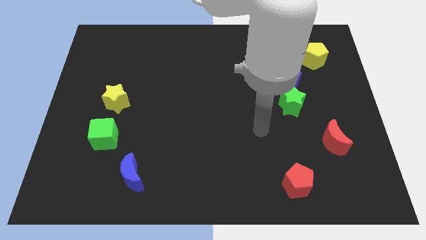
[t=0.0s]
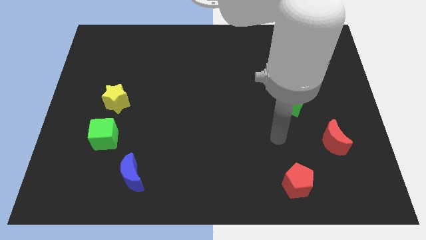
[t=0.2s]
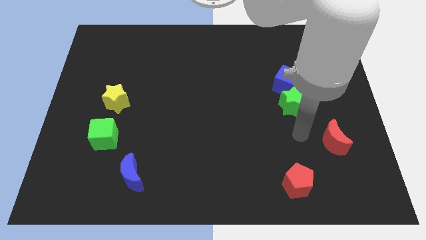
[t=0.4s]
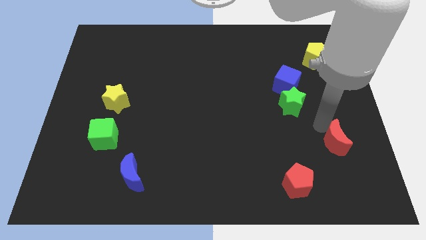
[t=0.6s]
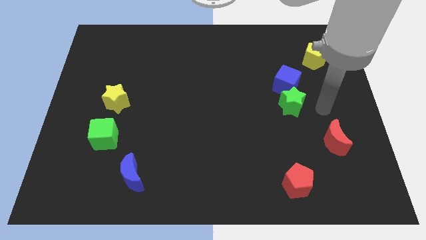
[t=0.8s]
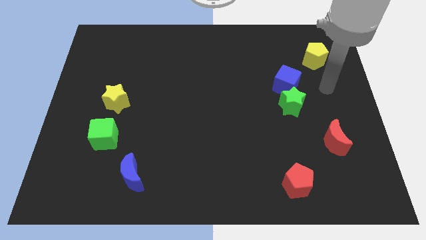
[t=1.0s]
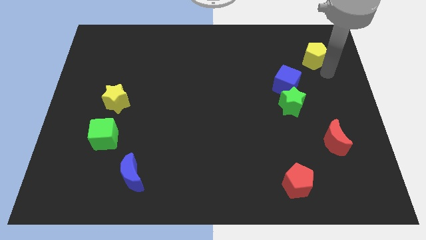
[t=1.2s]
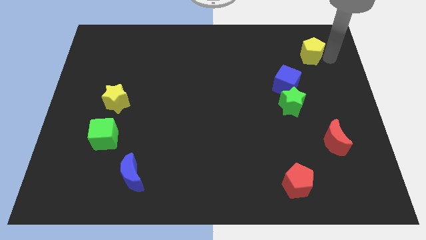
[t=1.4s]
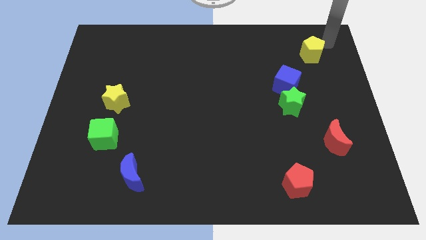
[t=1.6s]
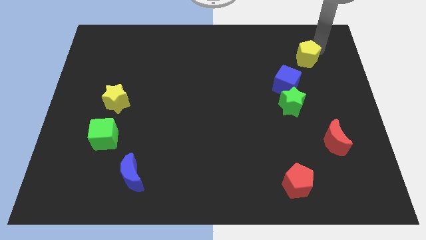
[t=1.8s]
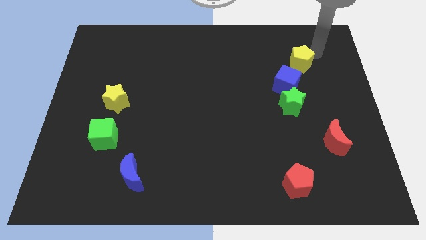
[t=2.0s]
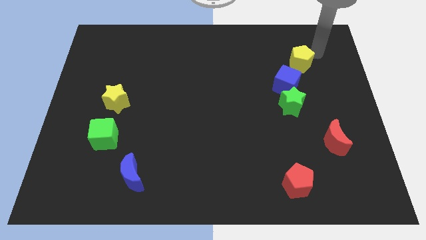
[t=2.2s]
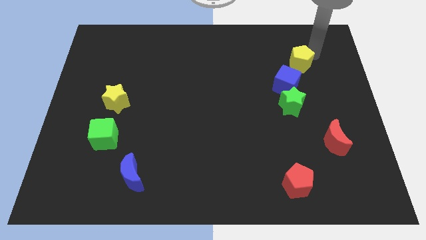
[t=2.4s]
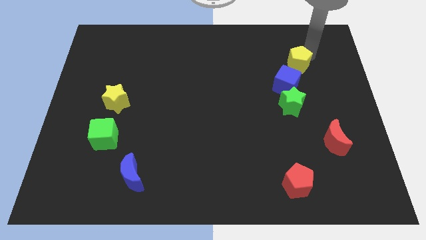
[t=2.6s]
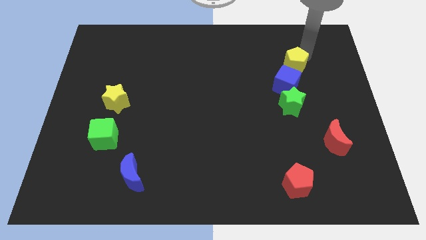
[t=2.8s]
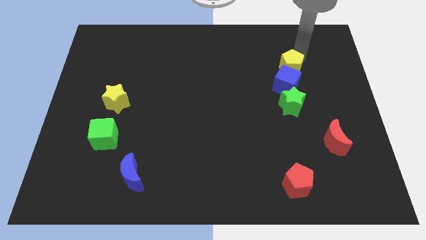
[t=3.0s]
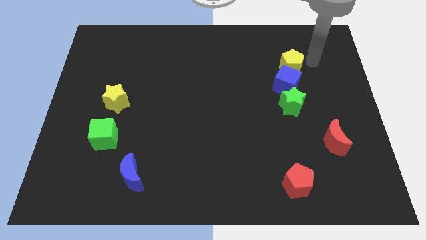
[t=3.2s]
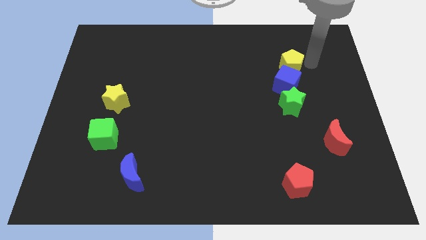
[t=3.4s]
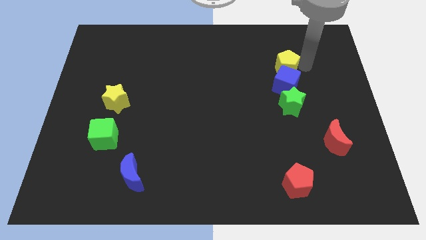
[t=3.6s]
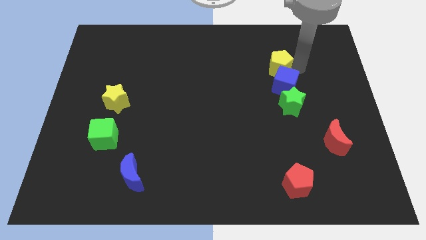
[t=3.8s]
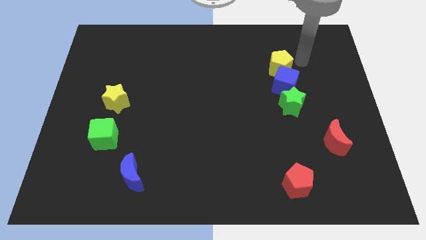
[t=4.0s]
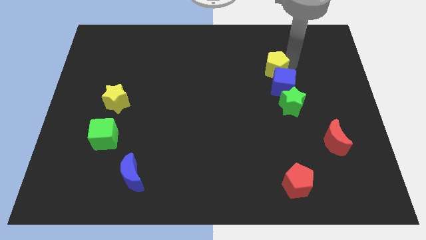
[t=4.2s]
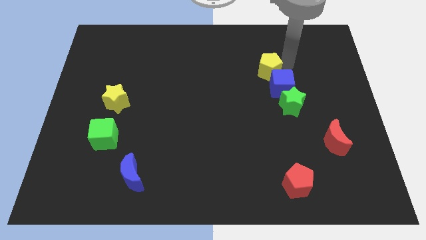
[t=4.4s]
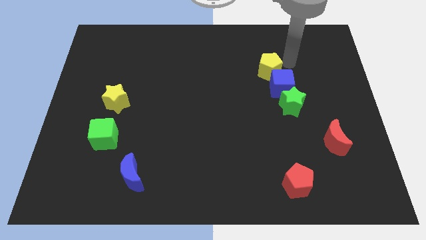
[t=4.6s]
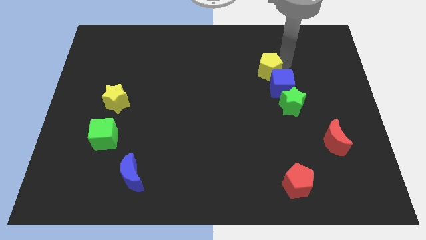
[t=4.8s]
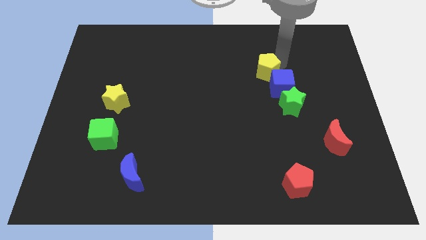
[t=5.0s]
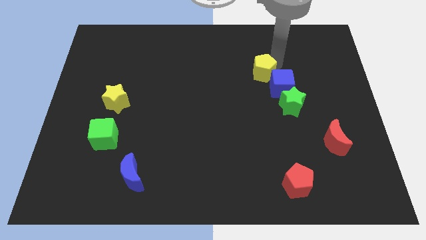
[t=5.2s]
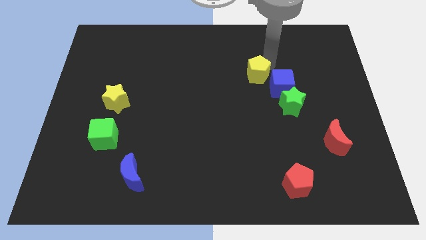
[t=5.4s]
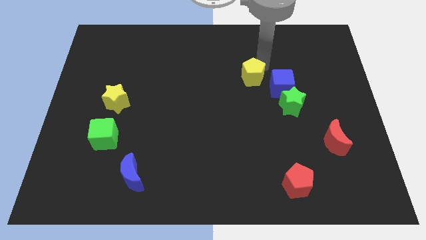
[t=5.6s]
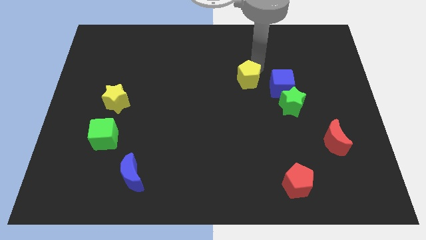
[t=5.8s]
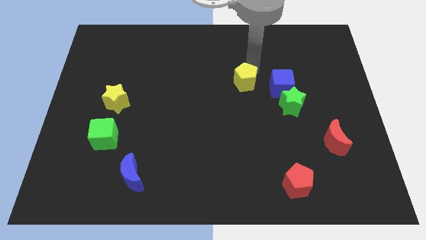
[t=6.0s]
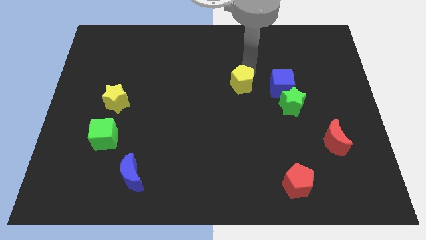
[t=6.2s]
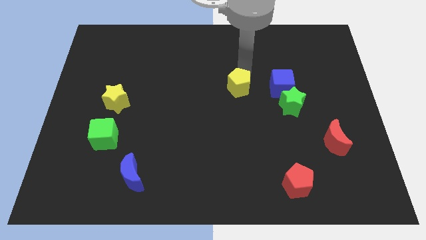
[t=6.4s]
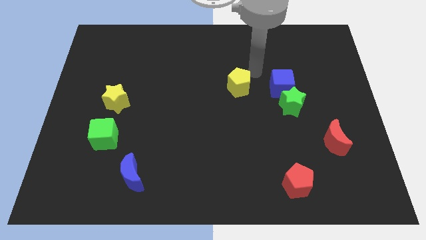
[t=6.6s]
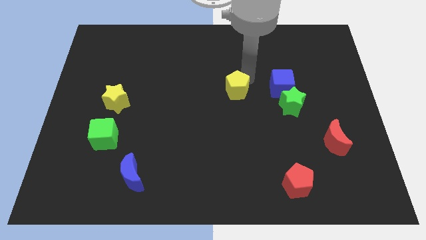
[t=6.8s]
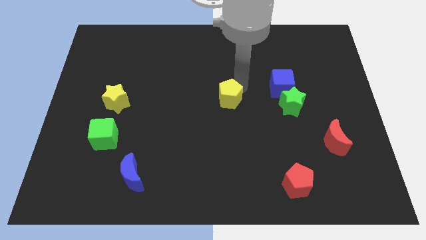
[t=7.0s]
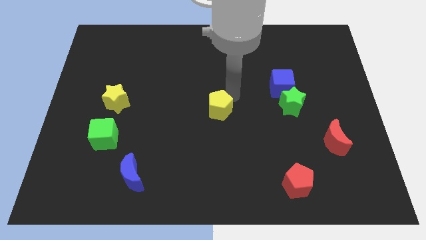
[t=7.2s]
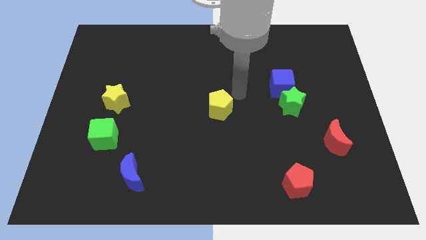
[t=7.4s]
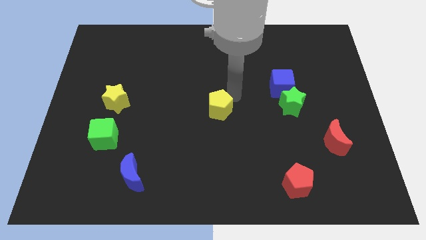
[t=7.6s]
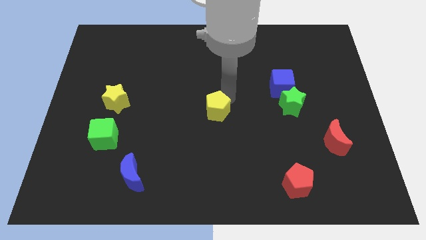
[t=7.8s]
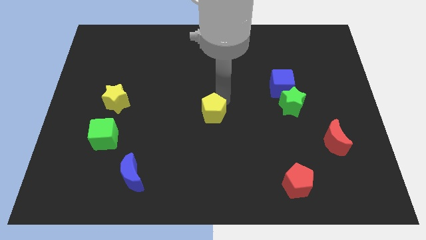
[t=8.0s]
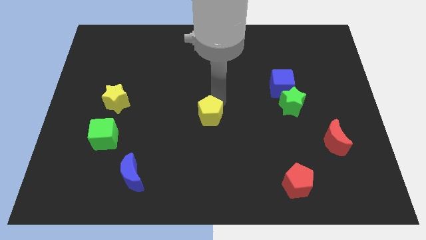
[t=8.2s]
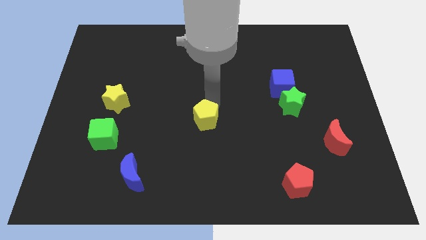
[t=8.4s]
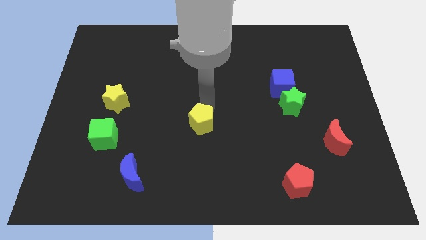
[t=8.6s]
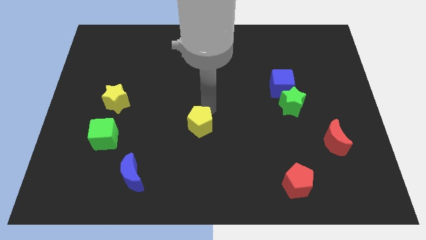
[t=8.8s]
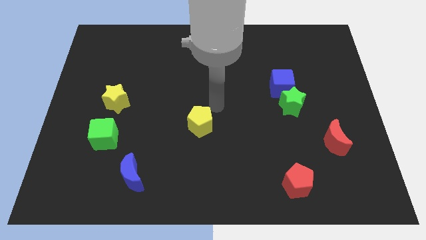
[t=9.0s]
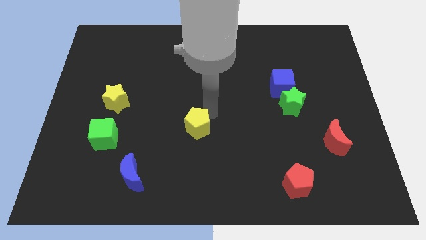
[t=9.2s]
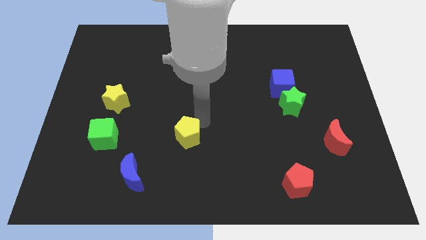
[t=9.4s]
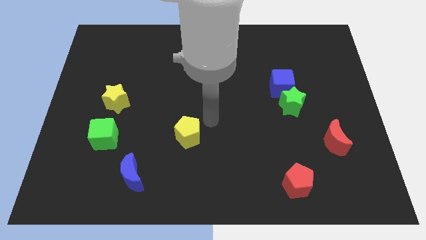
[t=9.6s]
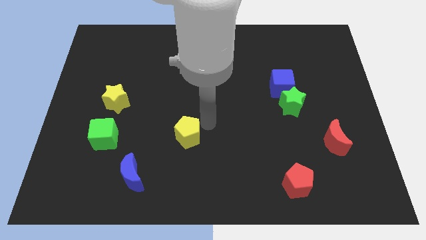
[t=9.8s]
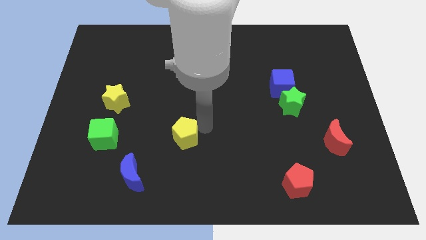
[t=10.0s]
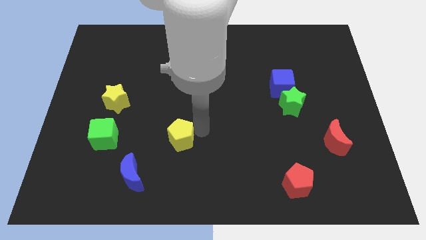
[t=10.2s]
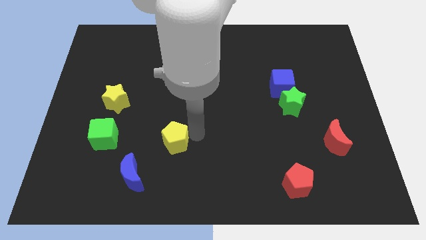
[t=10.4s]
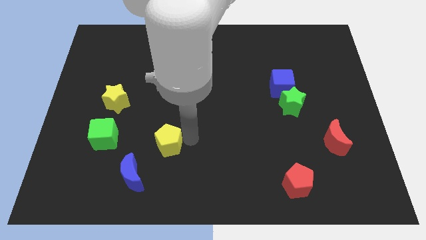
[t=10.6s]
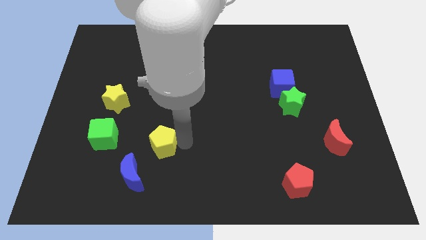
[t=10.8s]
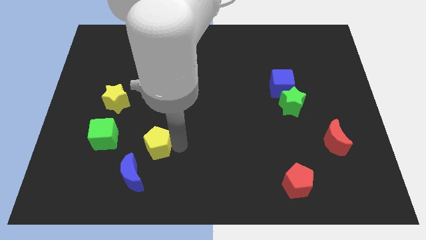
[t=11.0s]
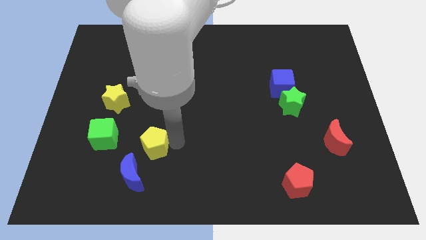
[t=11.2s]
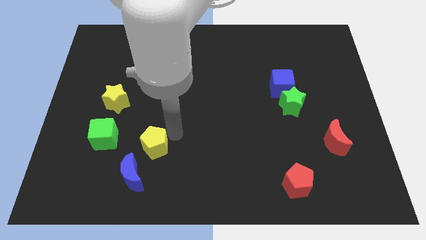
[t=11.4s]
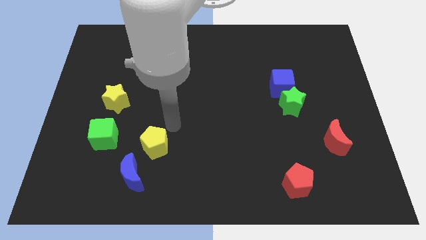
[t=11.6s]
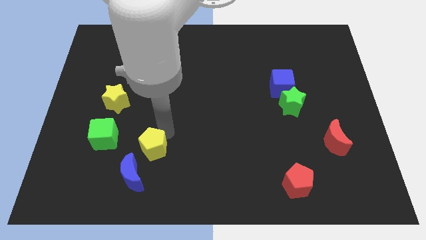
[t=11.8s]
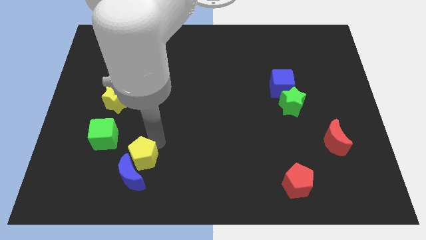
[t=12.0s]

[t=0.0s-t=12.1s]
move the yellow pentagon next to the blue moon

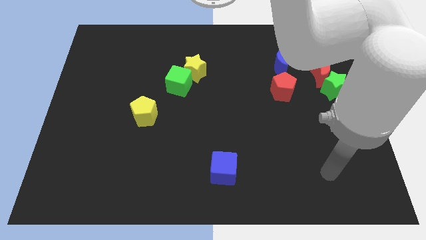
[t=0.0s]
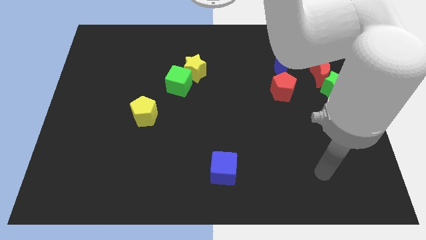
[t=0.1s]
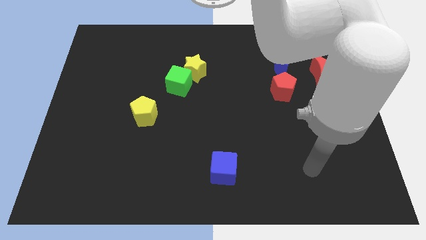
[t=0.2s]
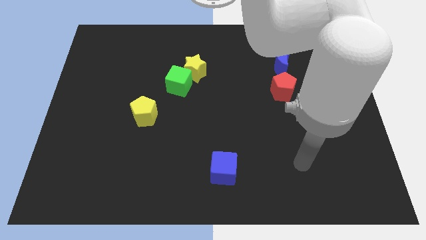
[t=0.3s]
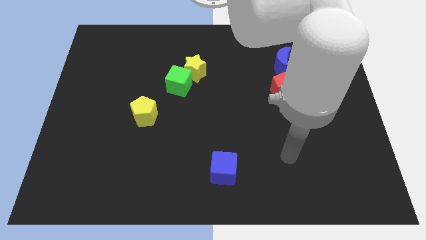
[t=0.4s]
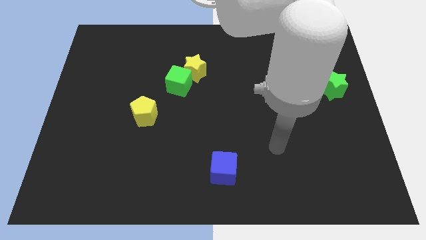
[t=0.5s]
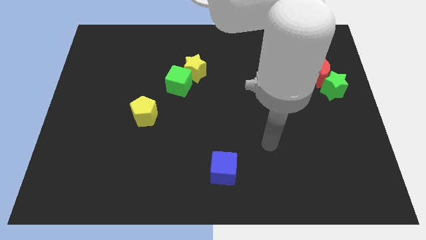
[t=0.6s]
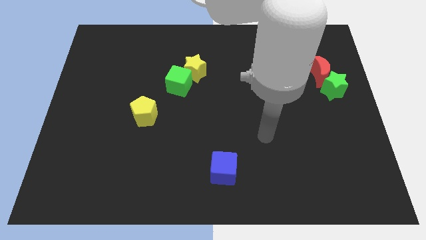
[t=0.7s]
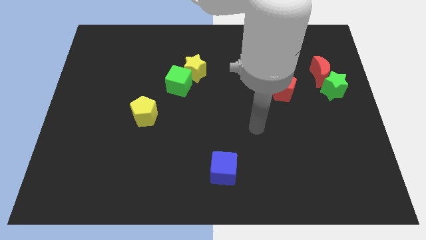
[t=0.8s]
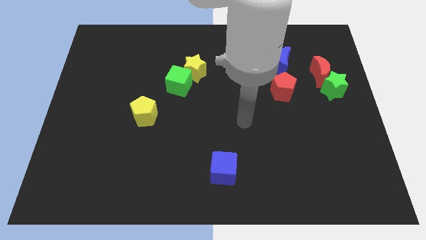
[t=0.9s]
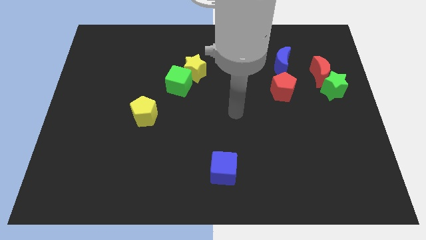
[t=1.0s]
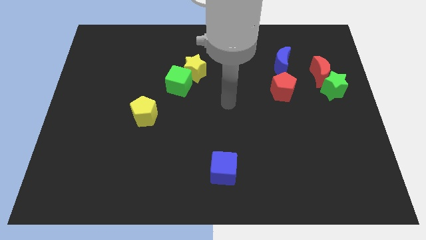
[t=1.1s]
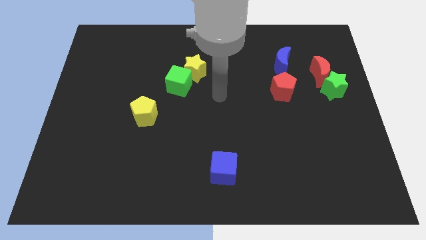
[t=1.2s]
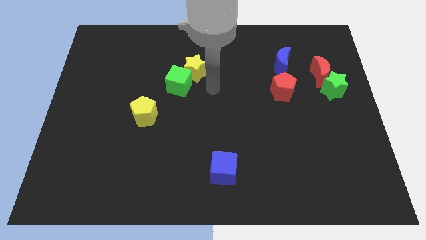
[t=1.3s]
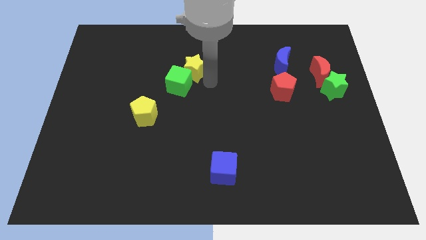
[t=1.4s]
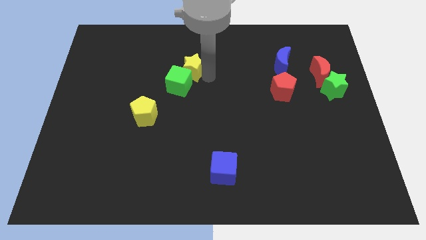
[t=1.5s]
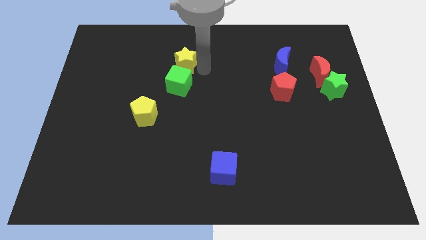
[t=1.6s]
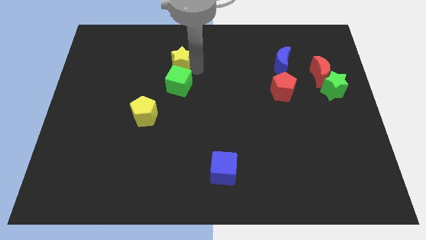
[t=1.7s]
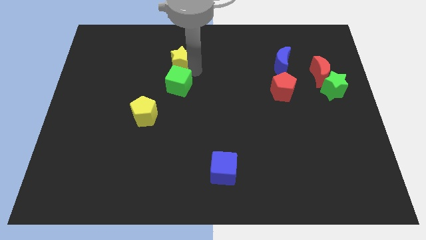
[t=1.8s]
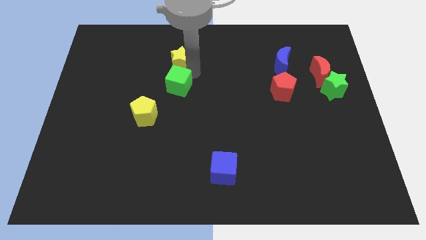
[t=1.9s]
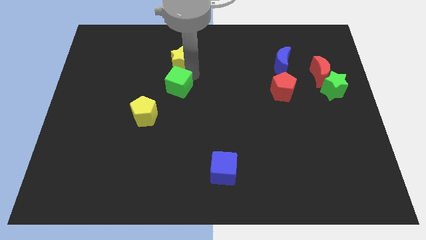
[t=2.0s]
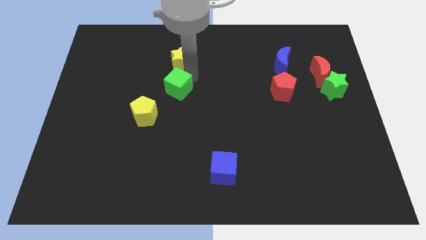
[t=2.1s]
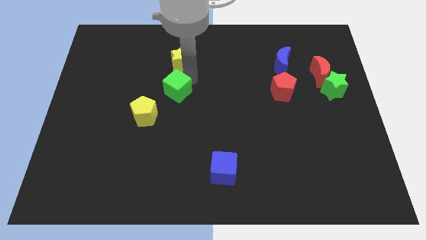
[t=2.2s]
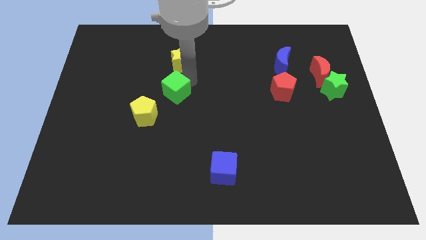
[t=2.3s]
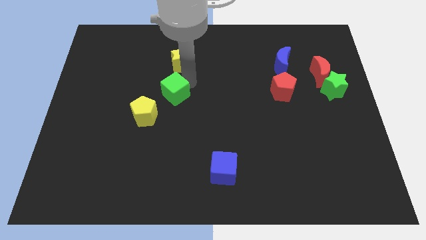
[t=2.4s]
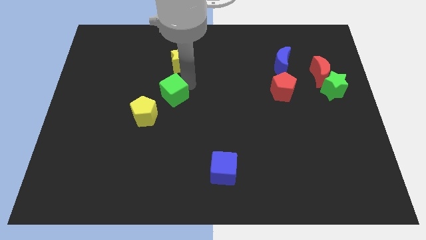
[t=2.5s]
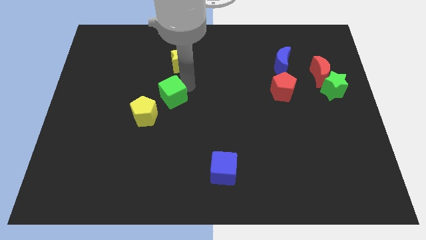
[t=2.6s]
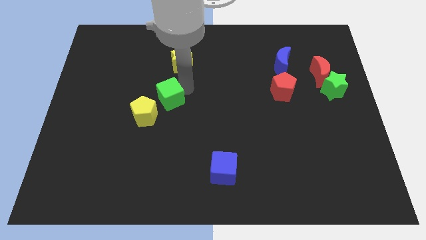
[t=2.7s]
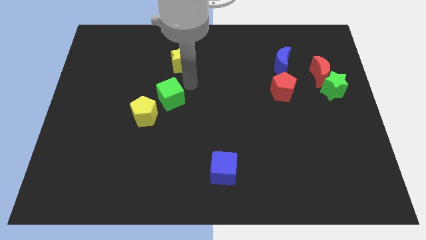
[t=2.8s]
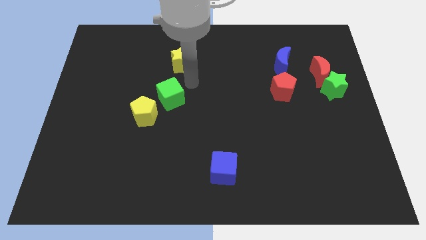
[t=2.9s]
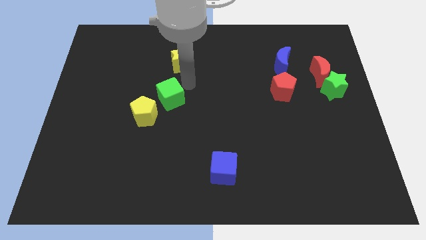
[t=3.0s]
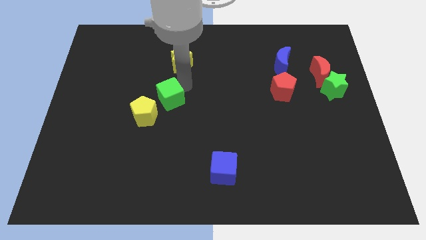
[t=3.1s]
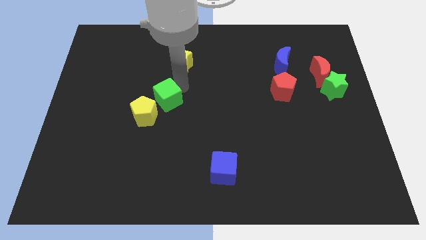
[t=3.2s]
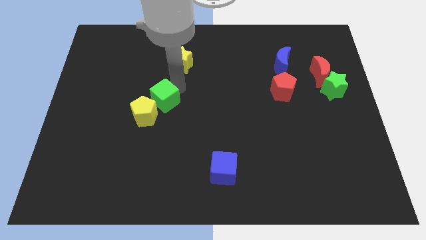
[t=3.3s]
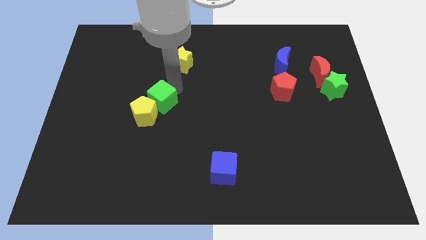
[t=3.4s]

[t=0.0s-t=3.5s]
slide the green cube to the yellow pentagon
